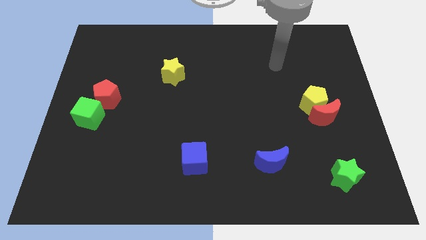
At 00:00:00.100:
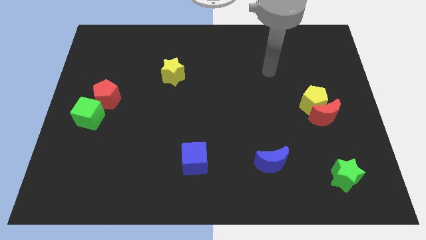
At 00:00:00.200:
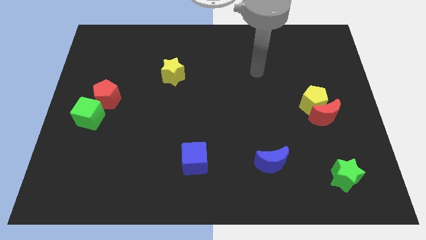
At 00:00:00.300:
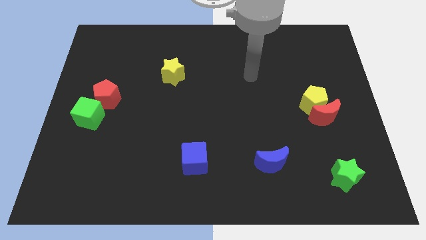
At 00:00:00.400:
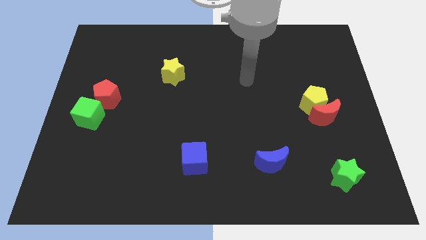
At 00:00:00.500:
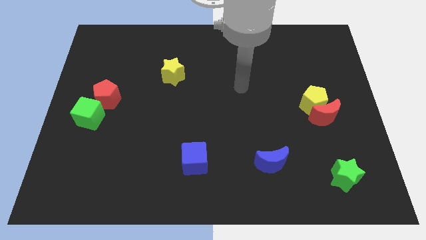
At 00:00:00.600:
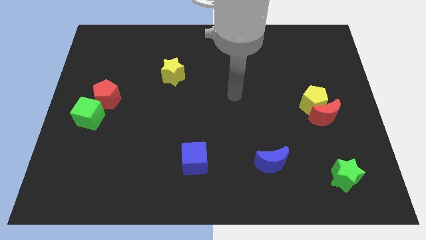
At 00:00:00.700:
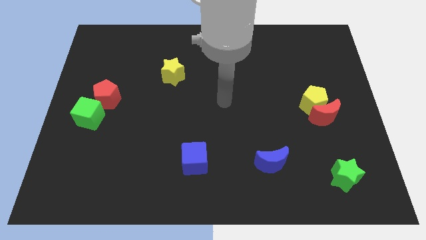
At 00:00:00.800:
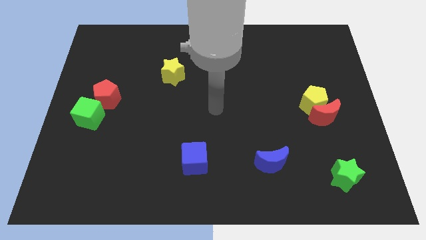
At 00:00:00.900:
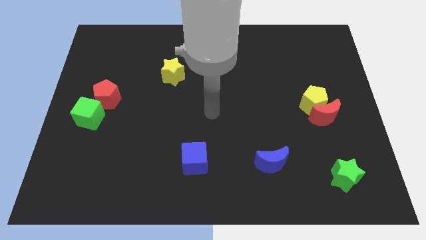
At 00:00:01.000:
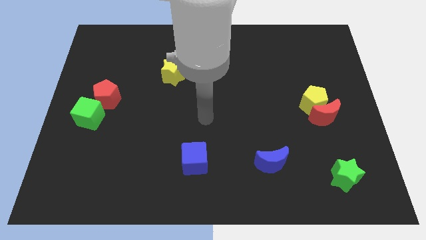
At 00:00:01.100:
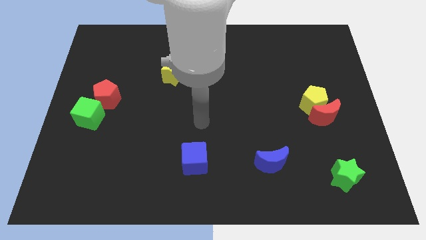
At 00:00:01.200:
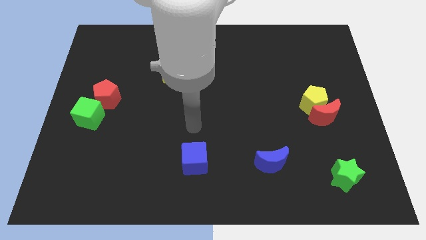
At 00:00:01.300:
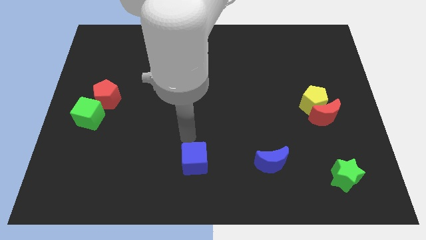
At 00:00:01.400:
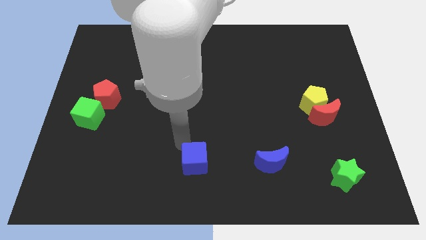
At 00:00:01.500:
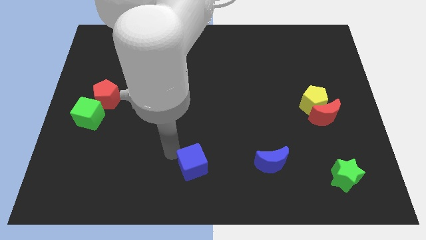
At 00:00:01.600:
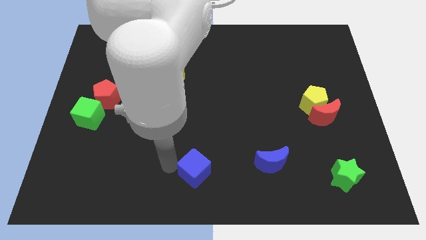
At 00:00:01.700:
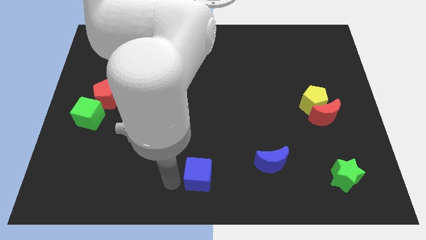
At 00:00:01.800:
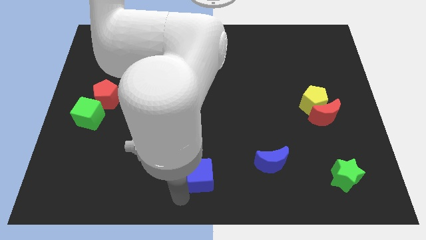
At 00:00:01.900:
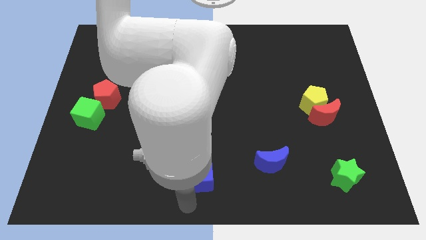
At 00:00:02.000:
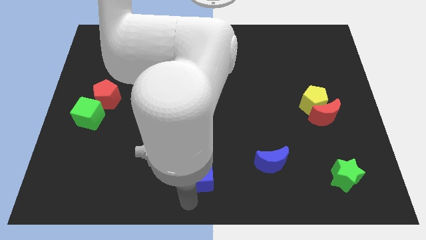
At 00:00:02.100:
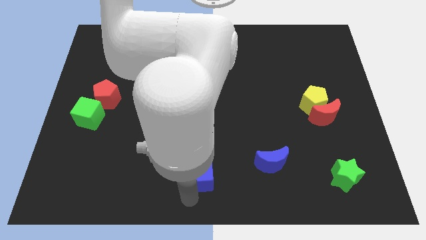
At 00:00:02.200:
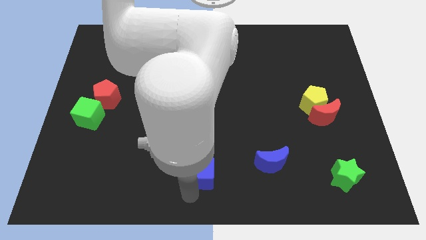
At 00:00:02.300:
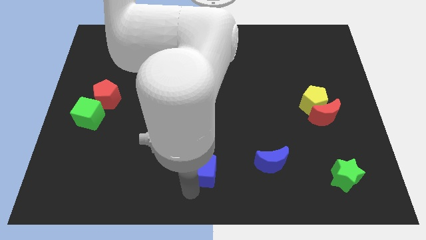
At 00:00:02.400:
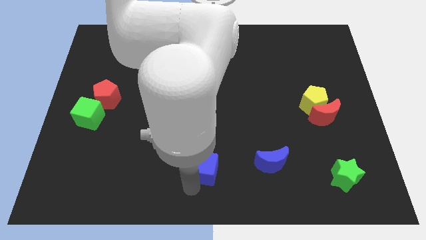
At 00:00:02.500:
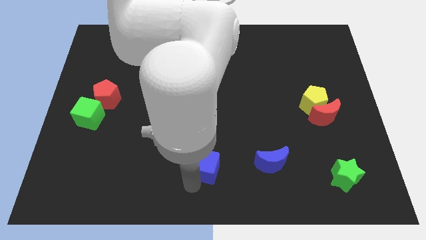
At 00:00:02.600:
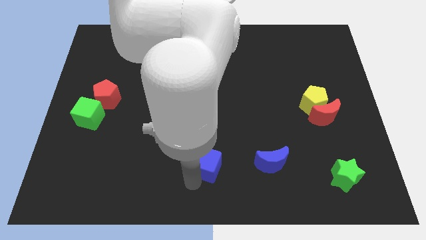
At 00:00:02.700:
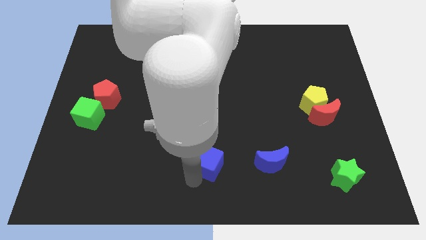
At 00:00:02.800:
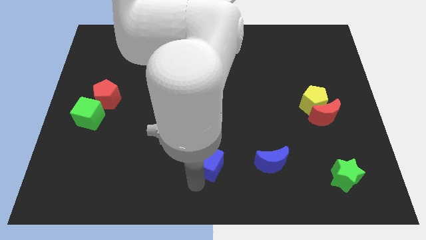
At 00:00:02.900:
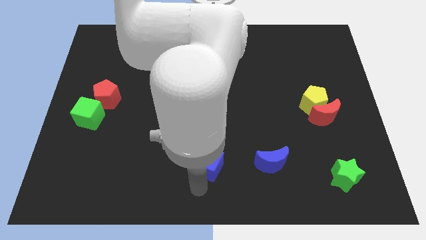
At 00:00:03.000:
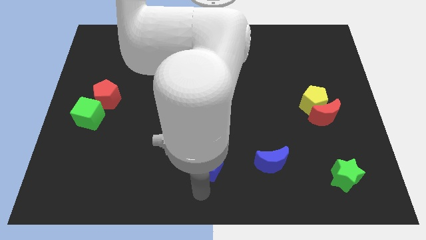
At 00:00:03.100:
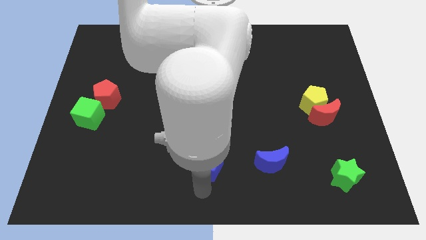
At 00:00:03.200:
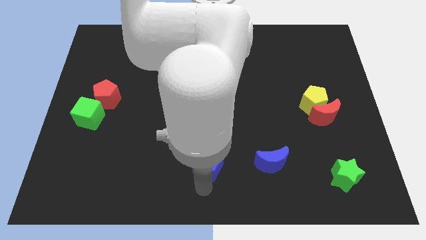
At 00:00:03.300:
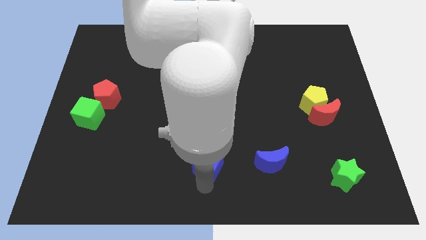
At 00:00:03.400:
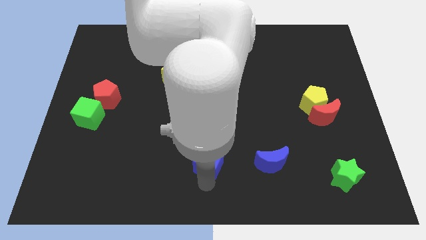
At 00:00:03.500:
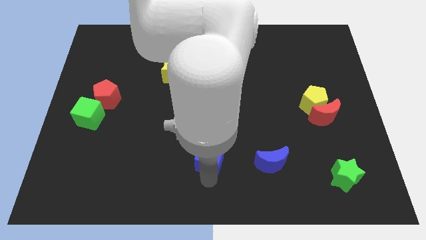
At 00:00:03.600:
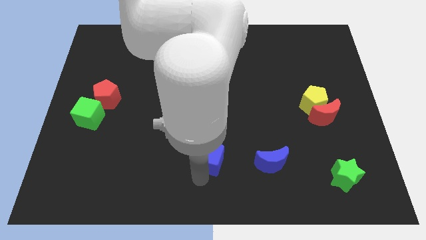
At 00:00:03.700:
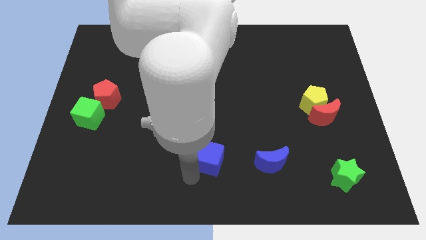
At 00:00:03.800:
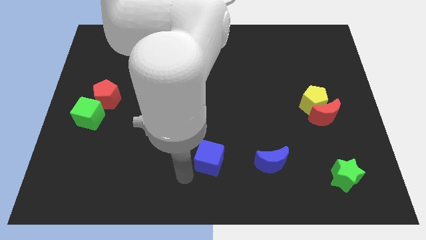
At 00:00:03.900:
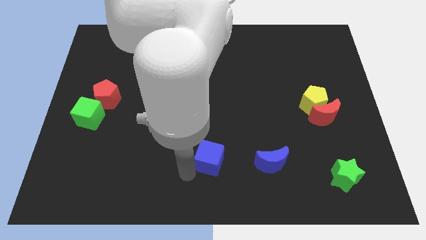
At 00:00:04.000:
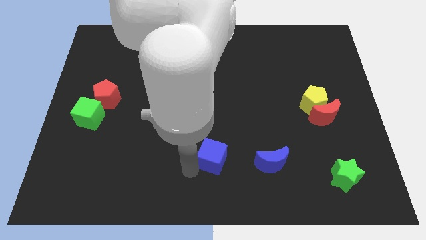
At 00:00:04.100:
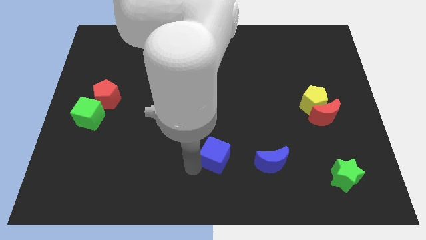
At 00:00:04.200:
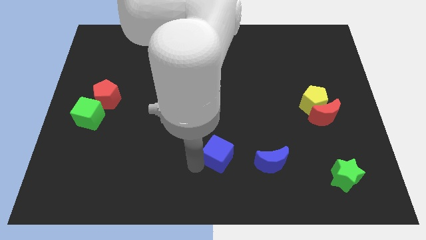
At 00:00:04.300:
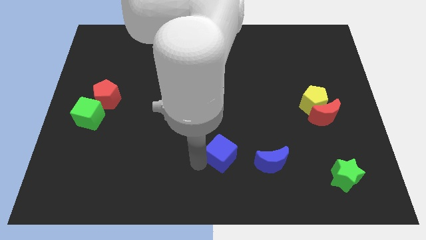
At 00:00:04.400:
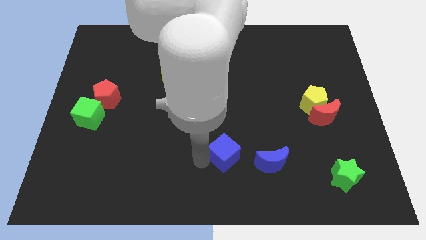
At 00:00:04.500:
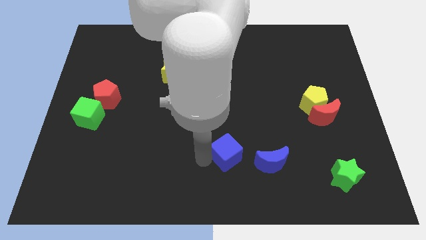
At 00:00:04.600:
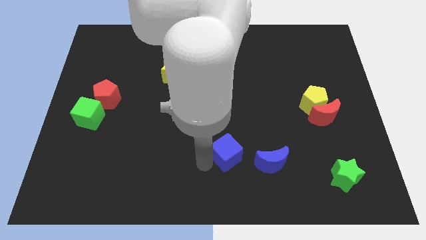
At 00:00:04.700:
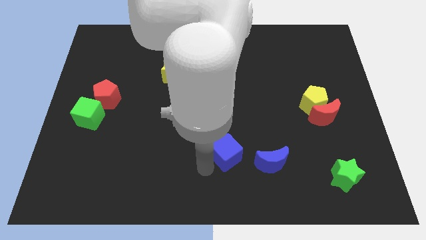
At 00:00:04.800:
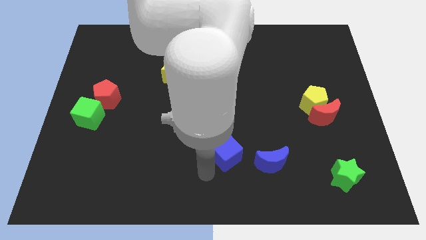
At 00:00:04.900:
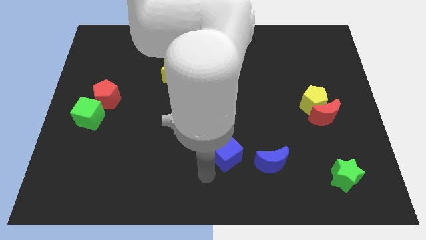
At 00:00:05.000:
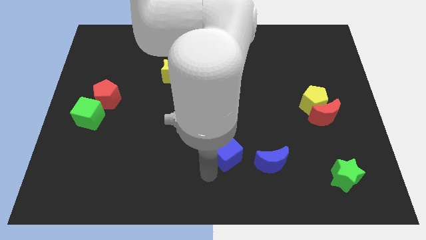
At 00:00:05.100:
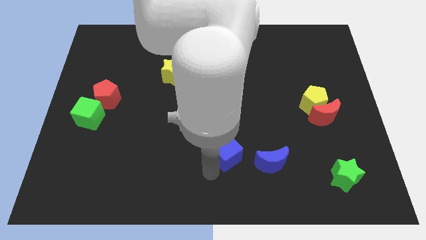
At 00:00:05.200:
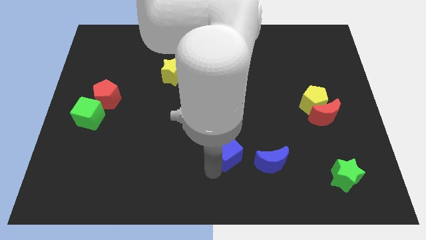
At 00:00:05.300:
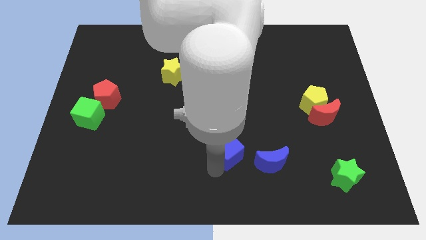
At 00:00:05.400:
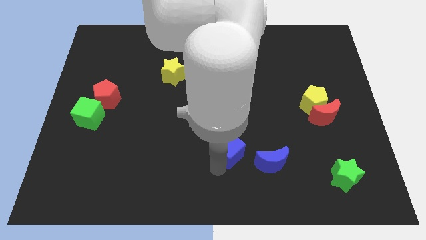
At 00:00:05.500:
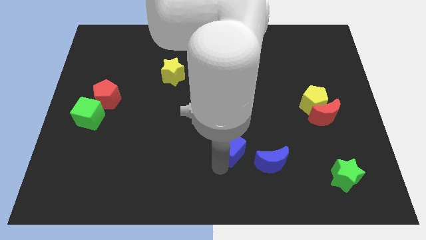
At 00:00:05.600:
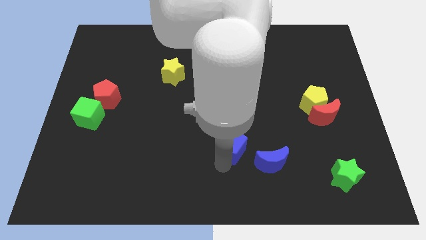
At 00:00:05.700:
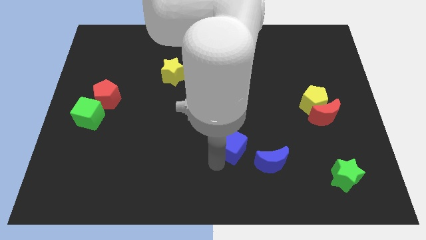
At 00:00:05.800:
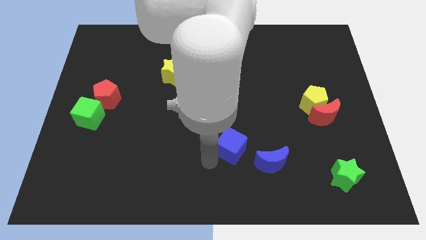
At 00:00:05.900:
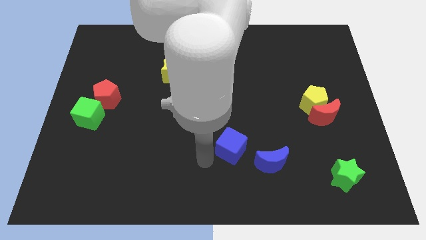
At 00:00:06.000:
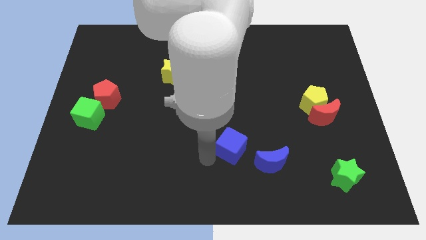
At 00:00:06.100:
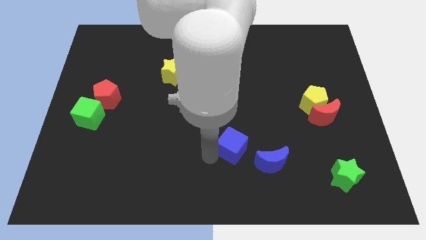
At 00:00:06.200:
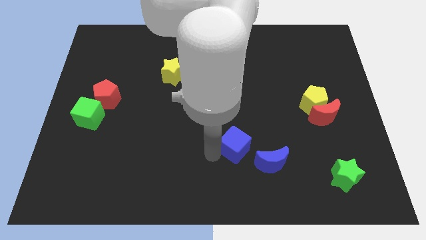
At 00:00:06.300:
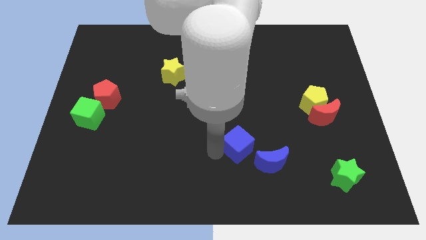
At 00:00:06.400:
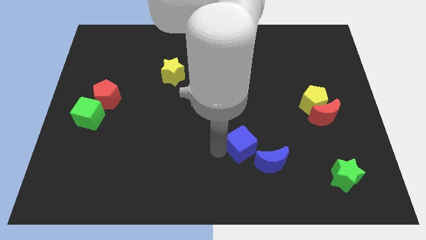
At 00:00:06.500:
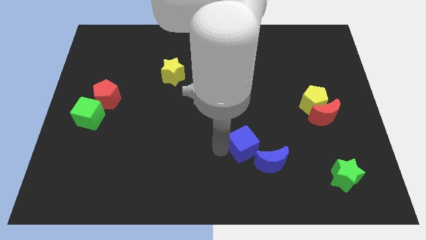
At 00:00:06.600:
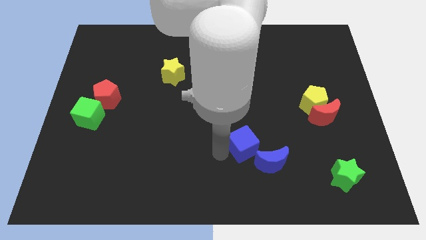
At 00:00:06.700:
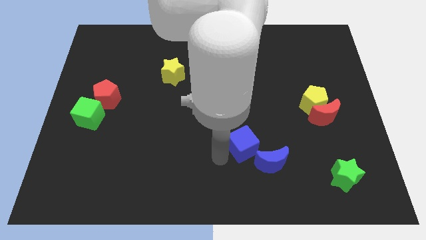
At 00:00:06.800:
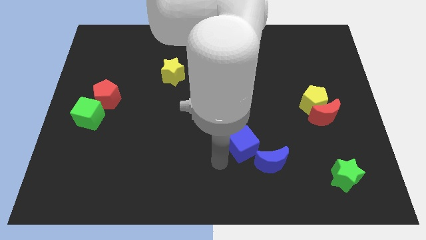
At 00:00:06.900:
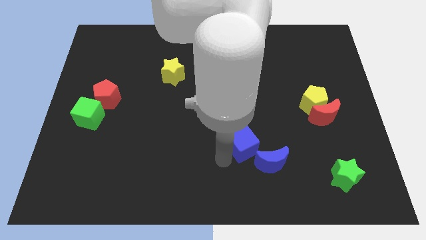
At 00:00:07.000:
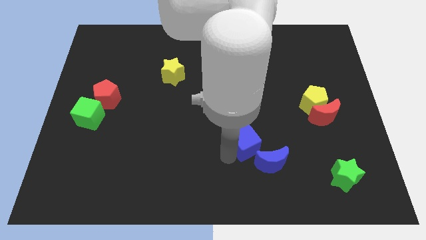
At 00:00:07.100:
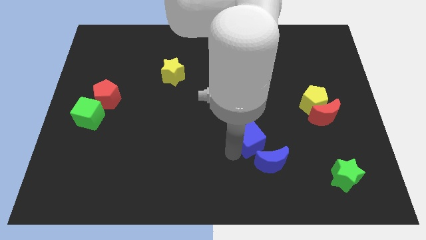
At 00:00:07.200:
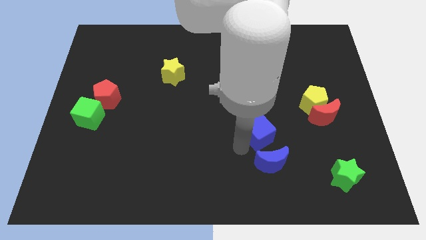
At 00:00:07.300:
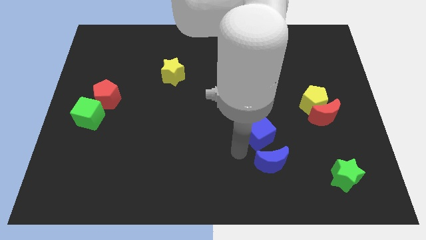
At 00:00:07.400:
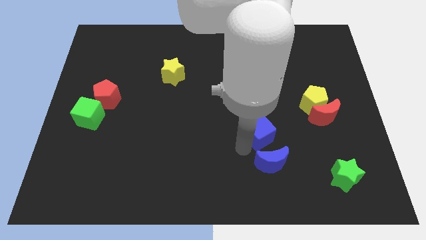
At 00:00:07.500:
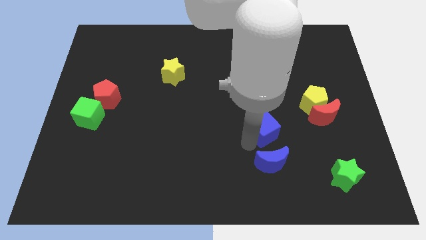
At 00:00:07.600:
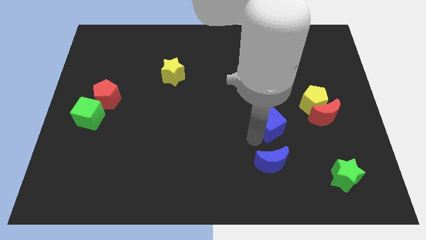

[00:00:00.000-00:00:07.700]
push the blue cube just left of the red moon
